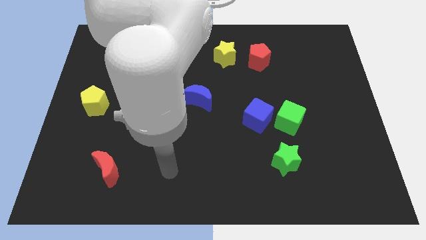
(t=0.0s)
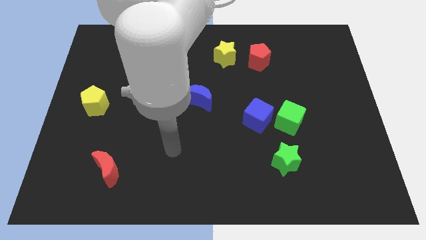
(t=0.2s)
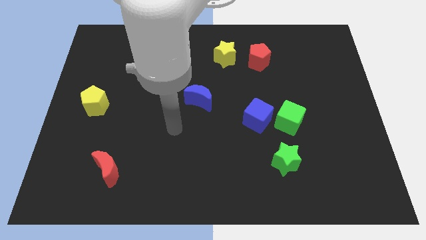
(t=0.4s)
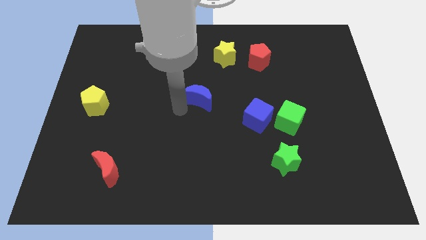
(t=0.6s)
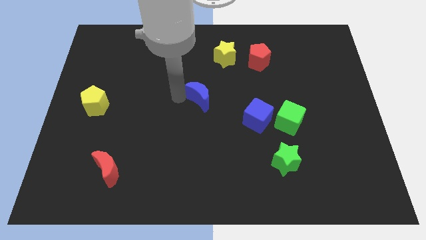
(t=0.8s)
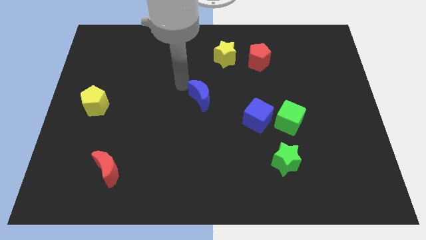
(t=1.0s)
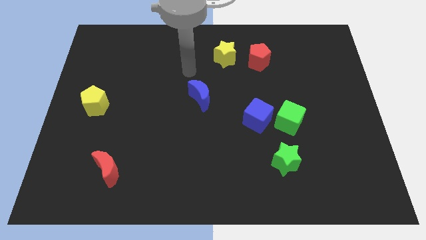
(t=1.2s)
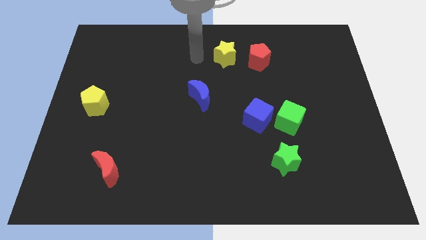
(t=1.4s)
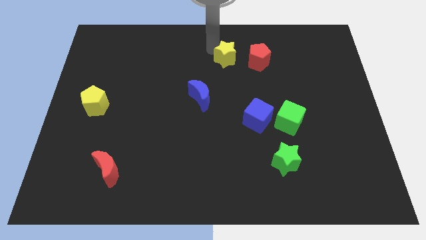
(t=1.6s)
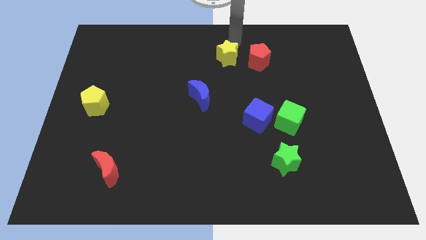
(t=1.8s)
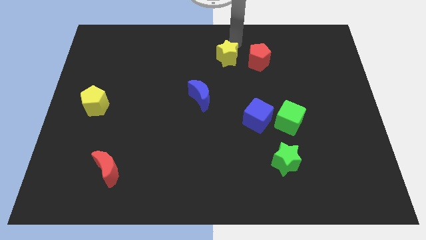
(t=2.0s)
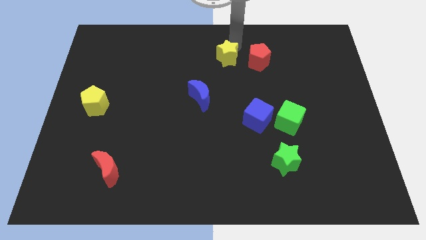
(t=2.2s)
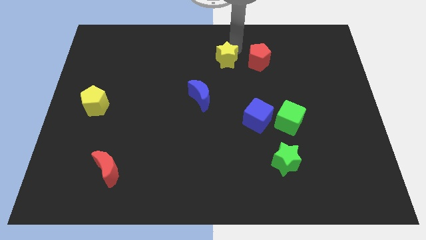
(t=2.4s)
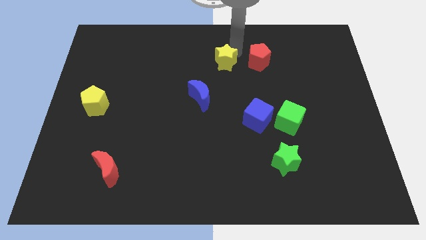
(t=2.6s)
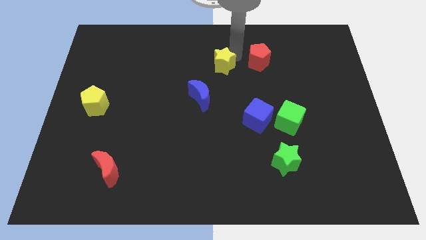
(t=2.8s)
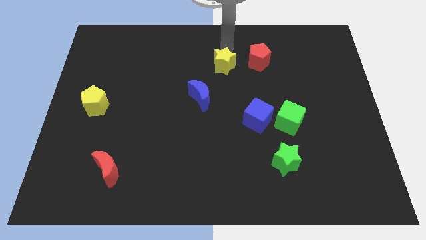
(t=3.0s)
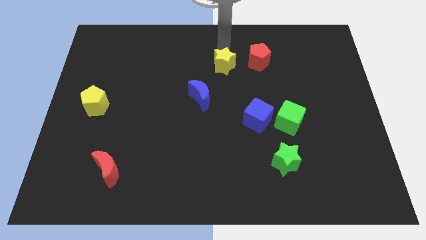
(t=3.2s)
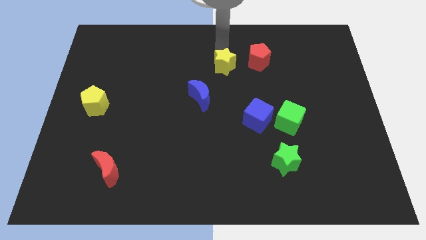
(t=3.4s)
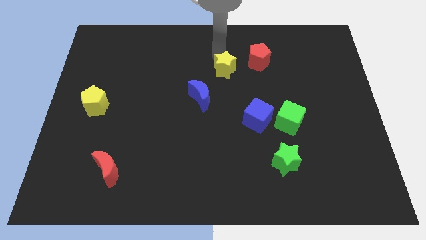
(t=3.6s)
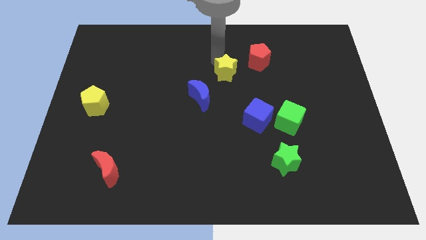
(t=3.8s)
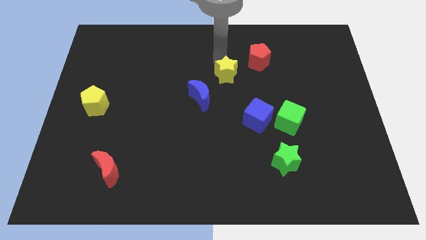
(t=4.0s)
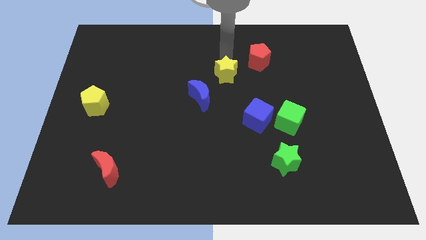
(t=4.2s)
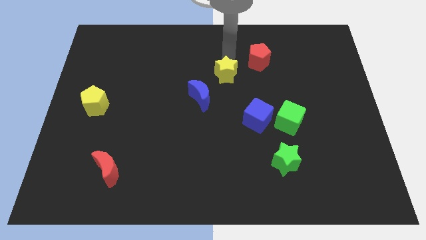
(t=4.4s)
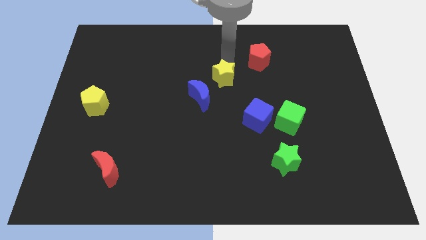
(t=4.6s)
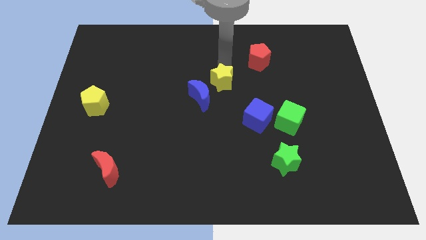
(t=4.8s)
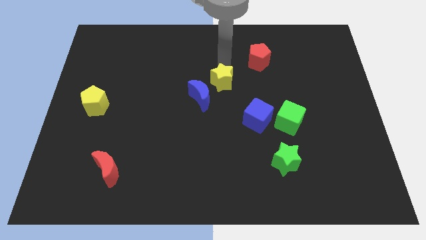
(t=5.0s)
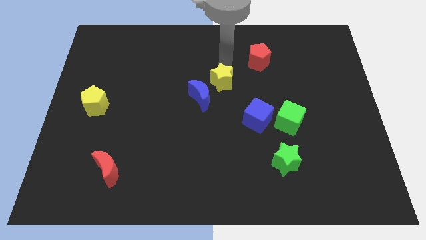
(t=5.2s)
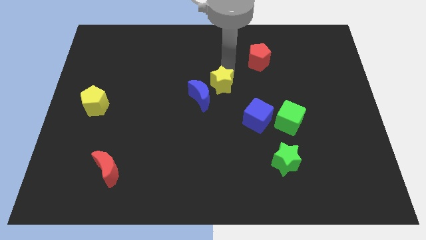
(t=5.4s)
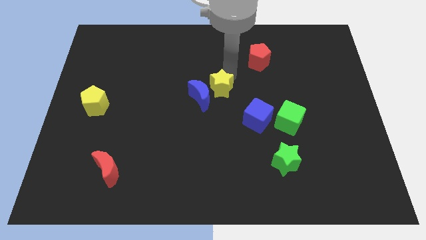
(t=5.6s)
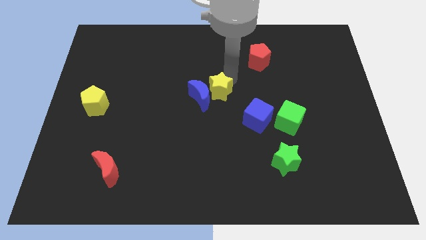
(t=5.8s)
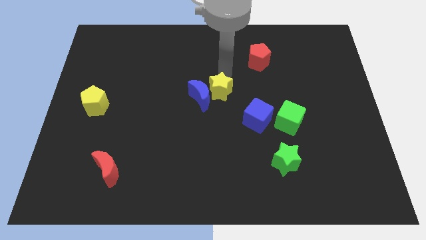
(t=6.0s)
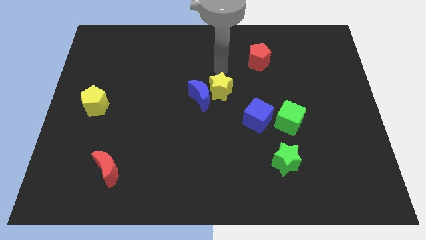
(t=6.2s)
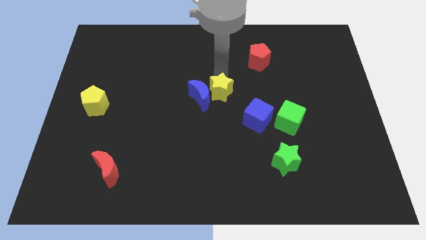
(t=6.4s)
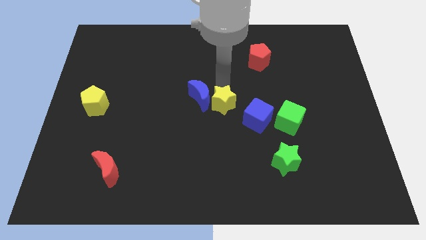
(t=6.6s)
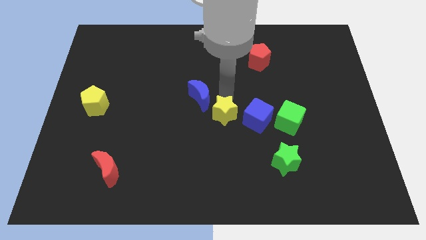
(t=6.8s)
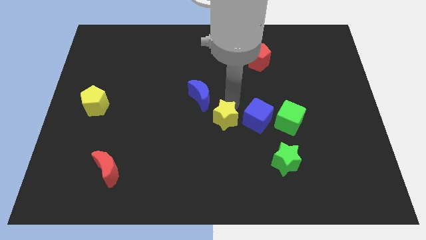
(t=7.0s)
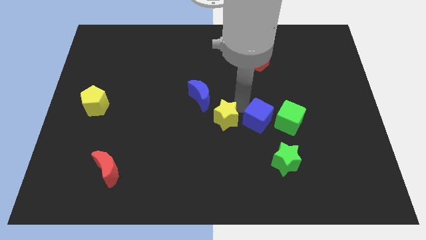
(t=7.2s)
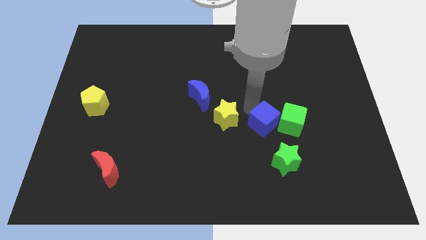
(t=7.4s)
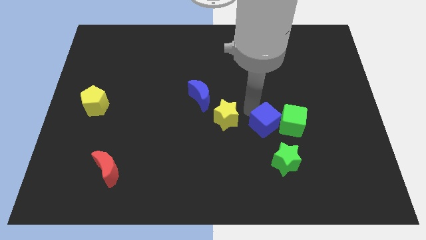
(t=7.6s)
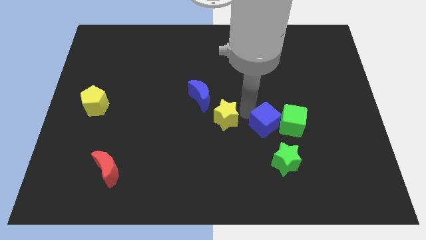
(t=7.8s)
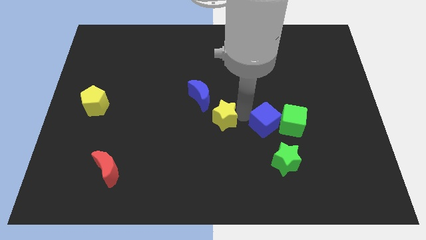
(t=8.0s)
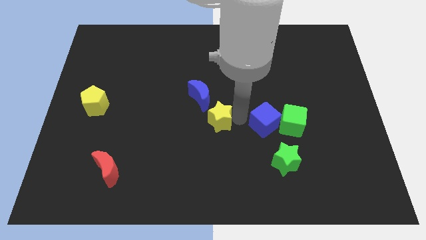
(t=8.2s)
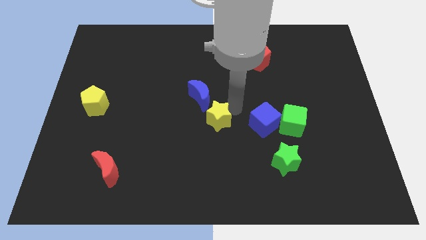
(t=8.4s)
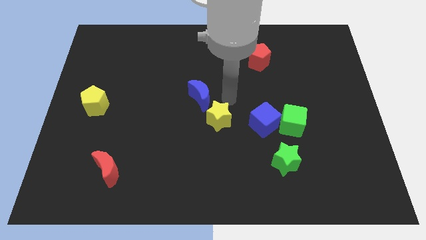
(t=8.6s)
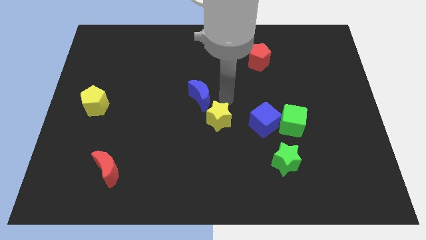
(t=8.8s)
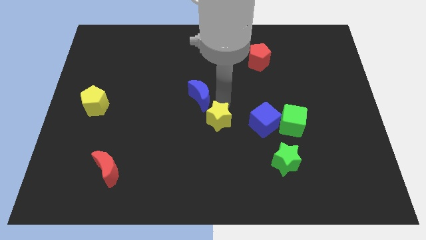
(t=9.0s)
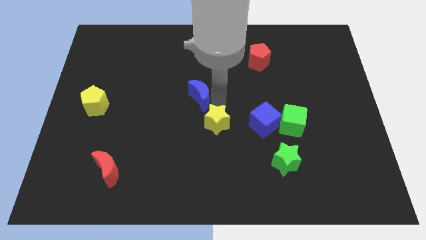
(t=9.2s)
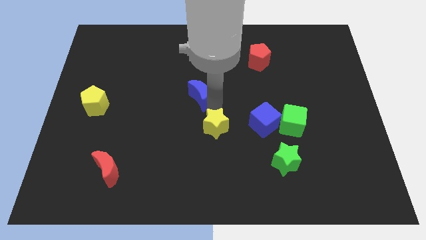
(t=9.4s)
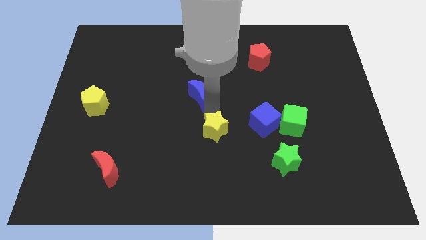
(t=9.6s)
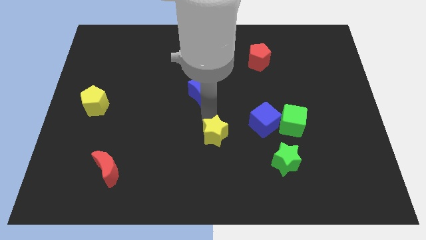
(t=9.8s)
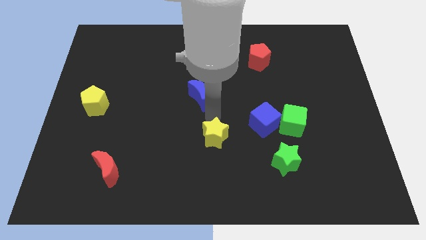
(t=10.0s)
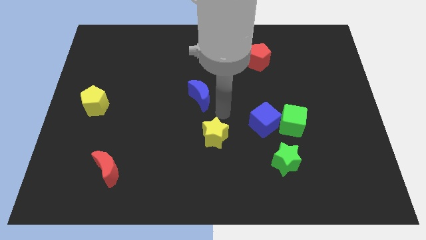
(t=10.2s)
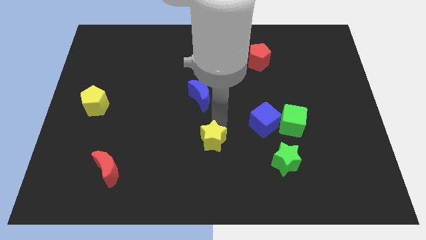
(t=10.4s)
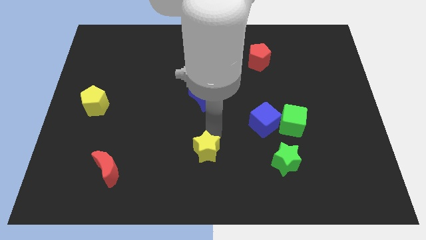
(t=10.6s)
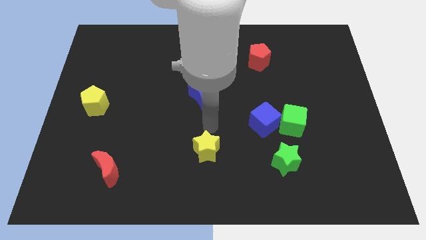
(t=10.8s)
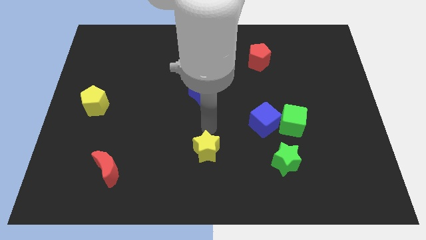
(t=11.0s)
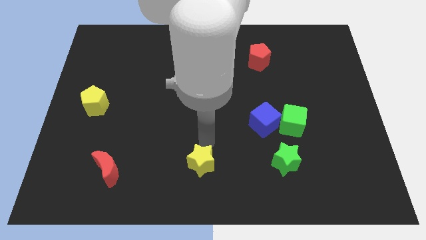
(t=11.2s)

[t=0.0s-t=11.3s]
put the yellow star to the bottom
